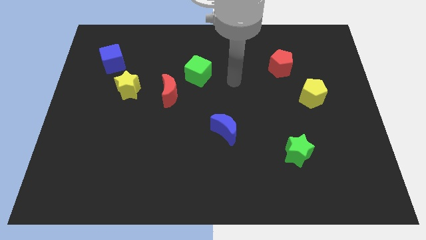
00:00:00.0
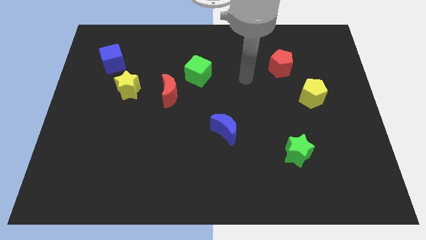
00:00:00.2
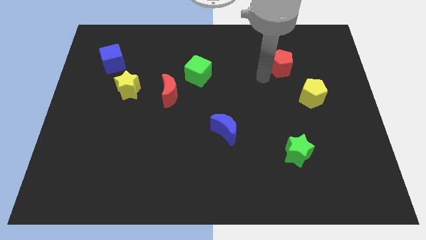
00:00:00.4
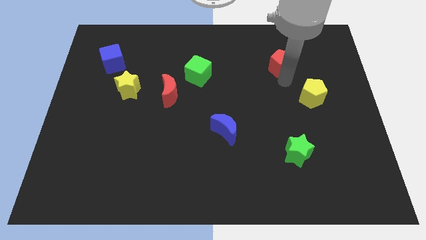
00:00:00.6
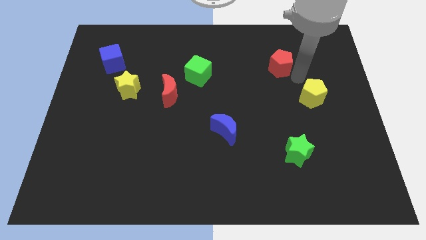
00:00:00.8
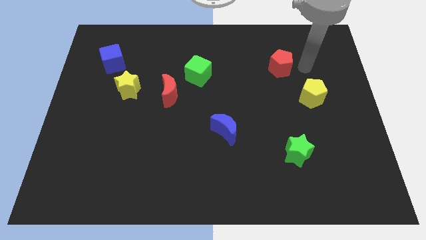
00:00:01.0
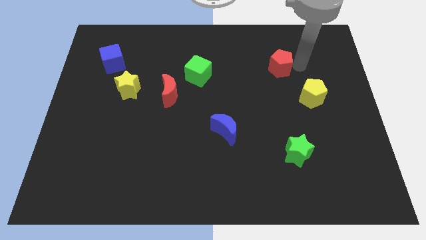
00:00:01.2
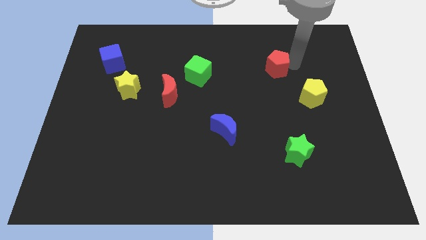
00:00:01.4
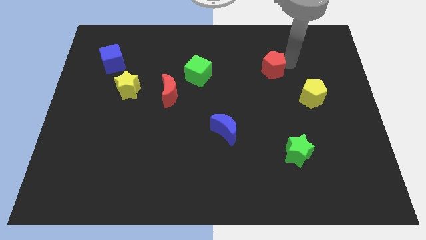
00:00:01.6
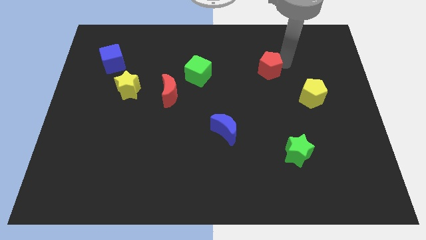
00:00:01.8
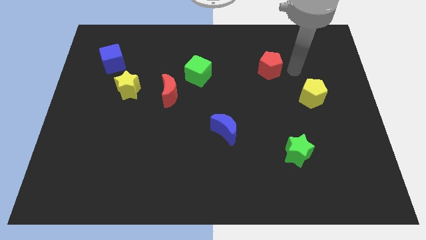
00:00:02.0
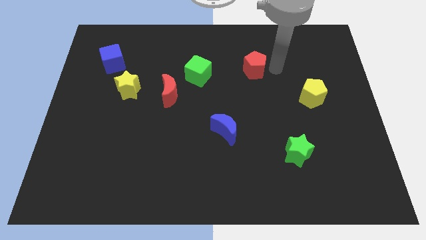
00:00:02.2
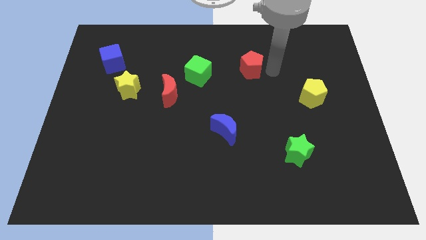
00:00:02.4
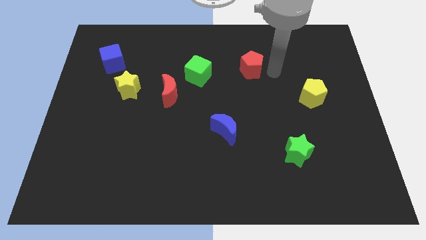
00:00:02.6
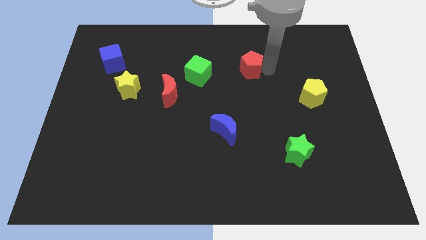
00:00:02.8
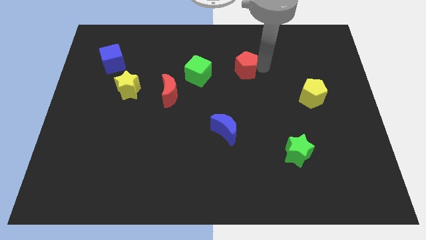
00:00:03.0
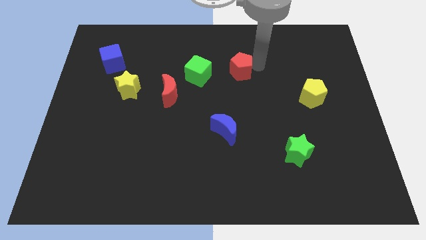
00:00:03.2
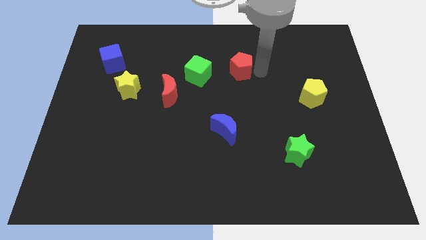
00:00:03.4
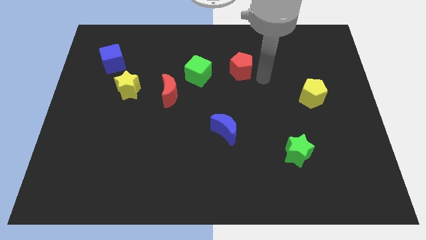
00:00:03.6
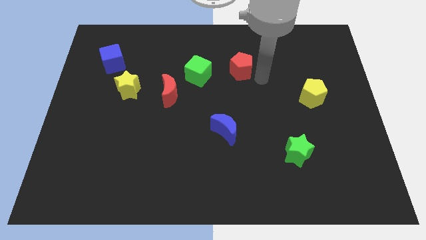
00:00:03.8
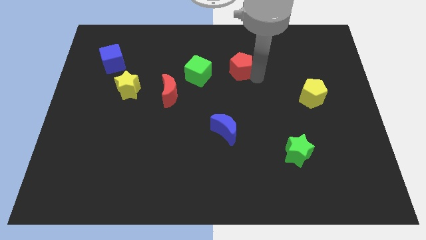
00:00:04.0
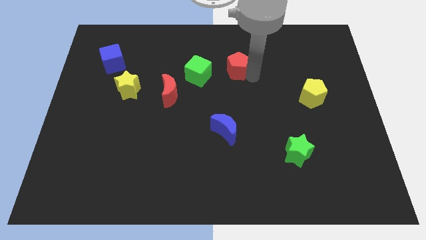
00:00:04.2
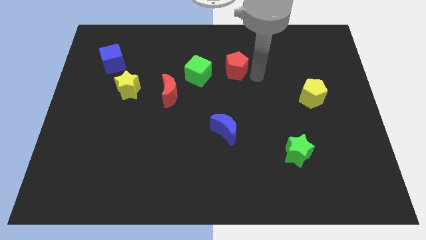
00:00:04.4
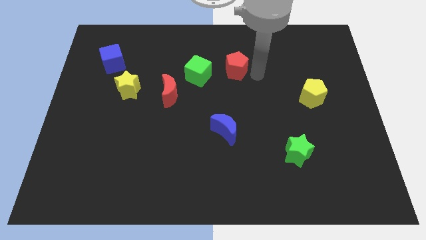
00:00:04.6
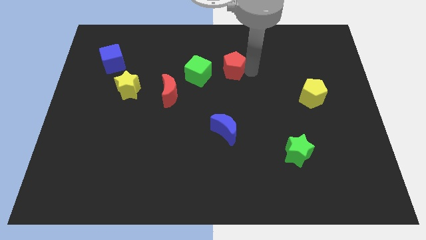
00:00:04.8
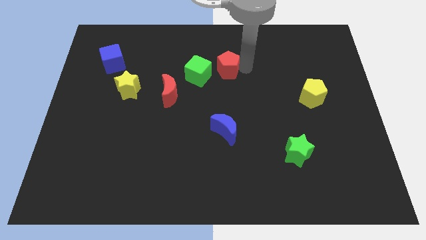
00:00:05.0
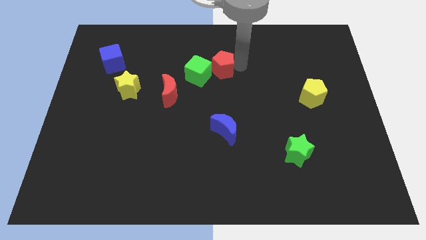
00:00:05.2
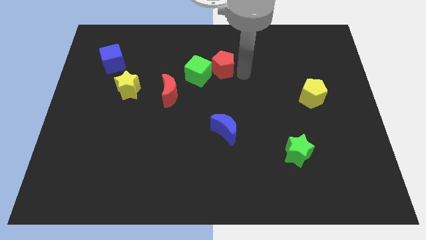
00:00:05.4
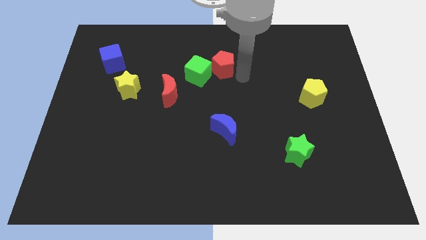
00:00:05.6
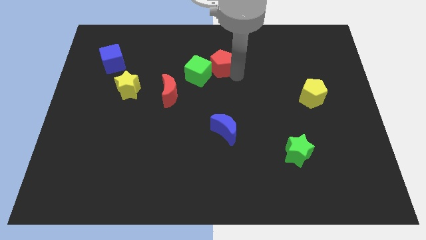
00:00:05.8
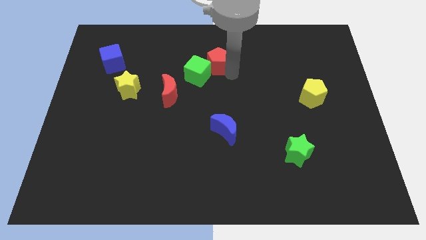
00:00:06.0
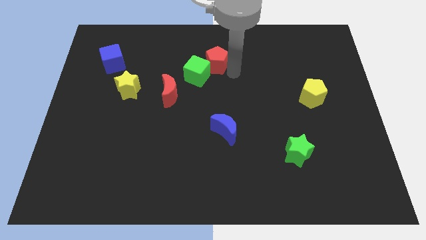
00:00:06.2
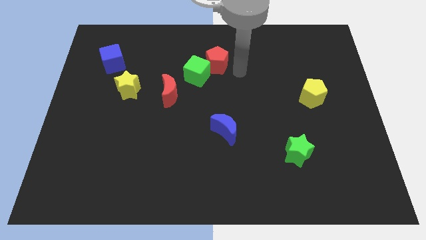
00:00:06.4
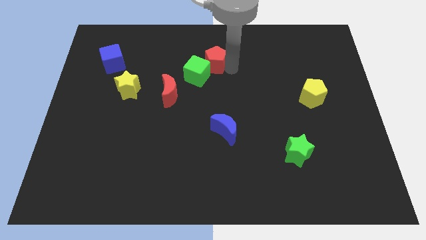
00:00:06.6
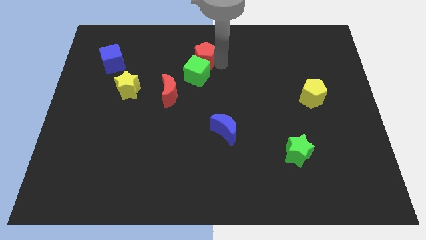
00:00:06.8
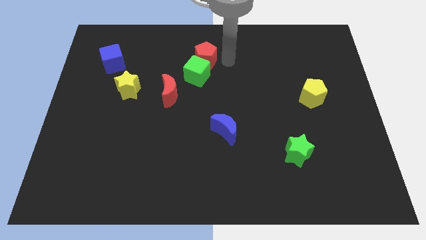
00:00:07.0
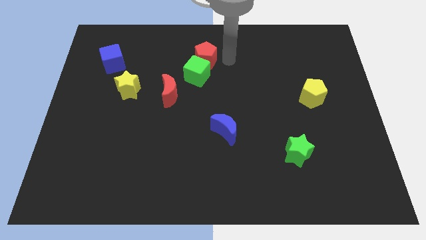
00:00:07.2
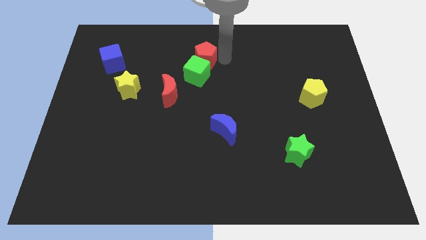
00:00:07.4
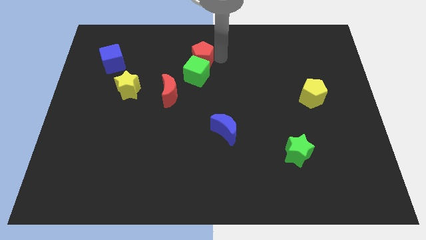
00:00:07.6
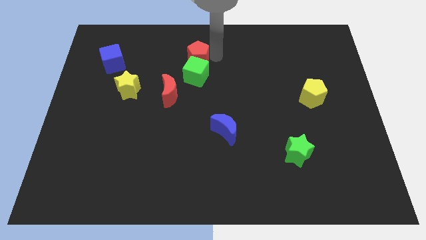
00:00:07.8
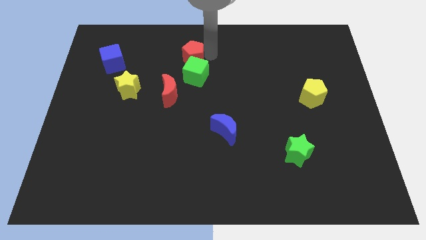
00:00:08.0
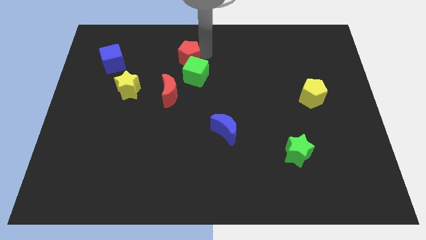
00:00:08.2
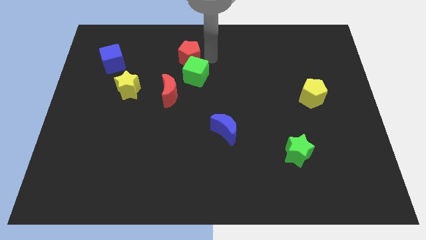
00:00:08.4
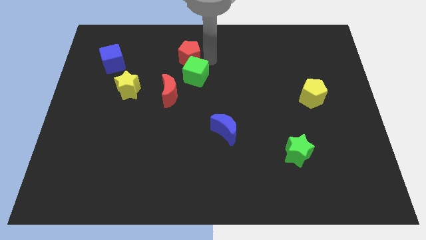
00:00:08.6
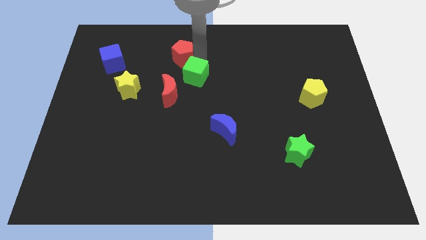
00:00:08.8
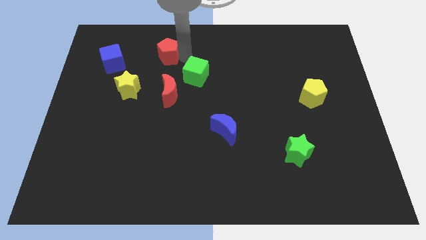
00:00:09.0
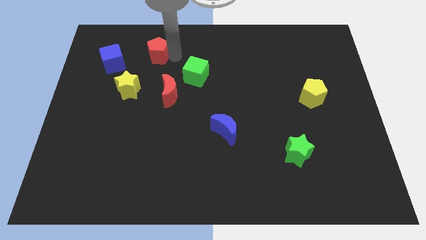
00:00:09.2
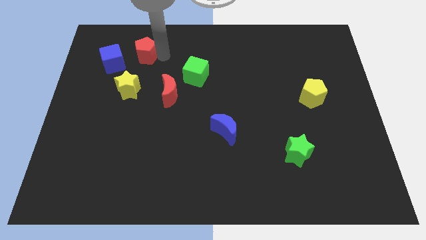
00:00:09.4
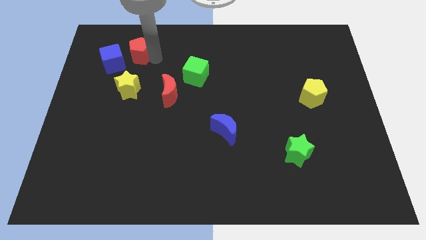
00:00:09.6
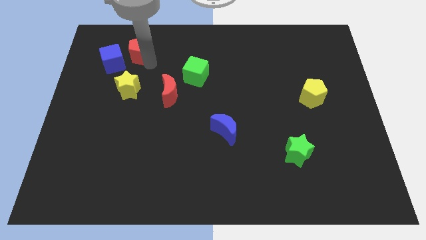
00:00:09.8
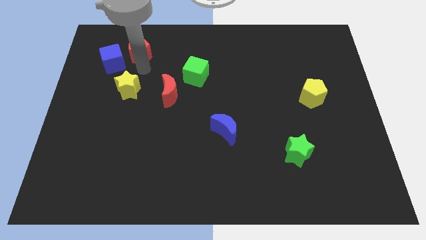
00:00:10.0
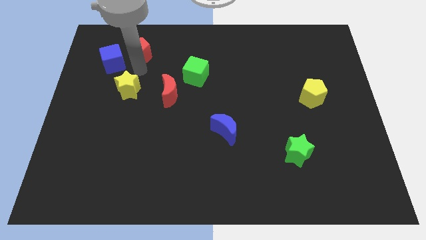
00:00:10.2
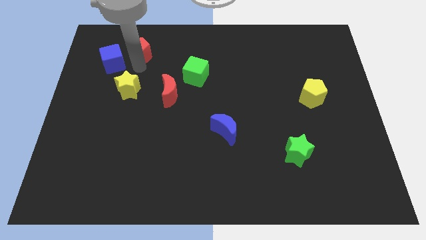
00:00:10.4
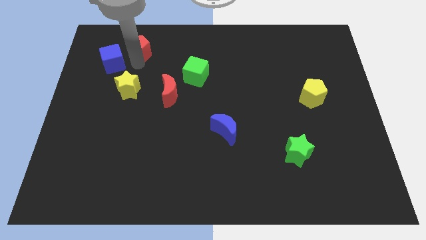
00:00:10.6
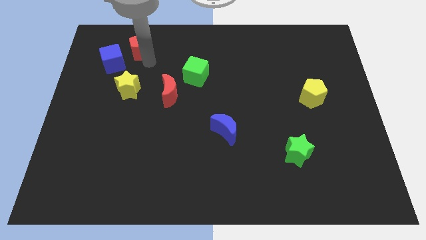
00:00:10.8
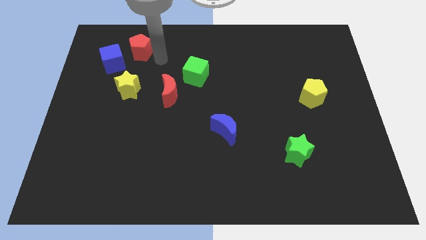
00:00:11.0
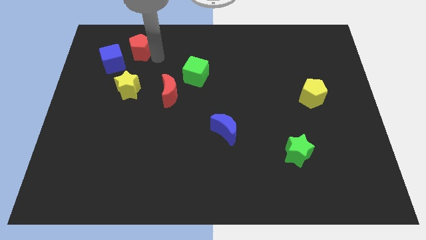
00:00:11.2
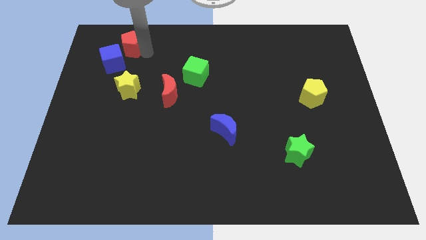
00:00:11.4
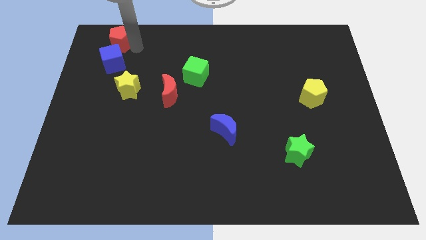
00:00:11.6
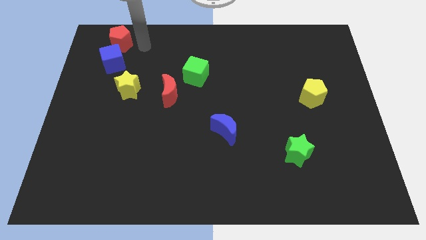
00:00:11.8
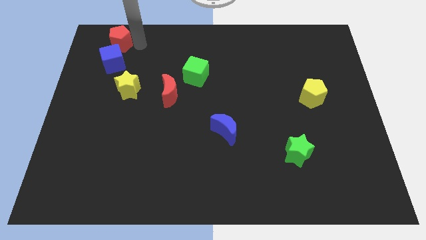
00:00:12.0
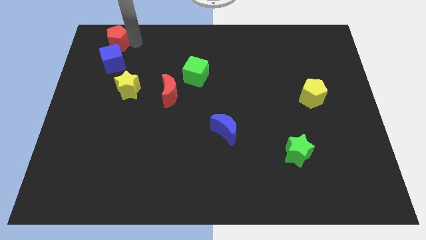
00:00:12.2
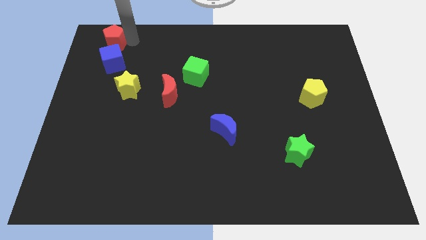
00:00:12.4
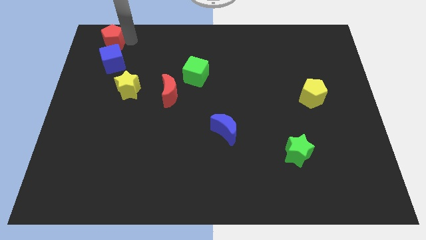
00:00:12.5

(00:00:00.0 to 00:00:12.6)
slide the red pentagon to the top left of the board
